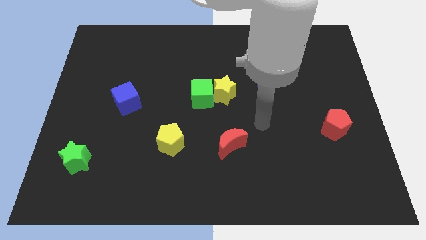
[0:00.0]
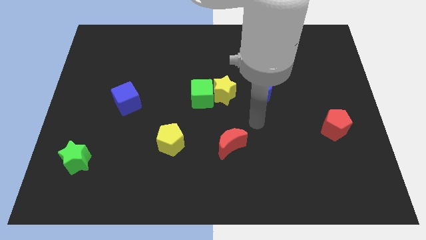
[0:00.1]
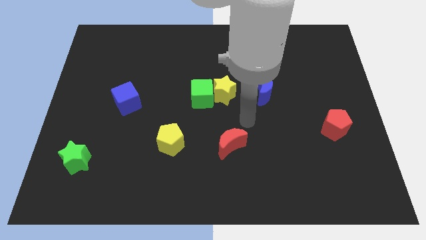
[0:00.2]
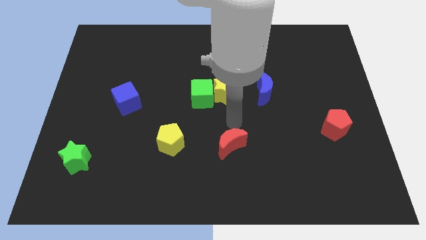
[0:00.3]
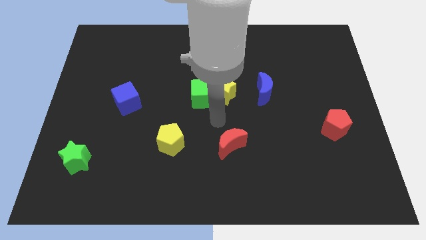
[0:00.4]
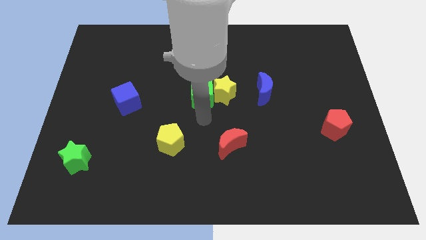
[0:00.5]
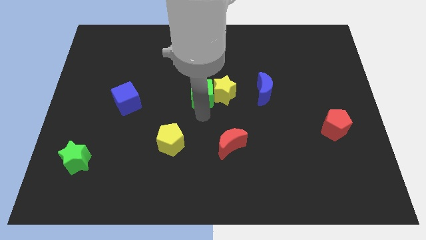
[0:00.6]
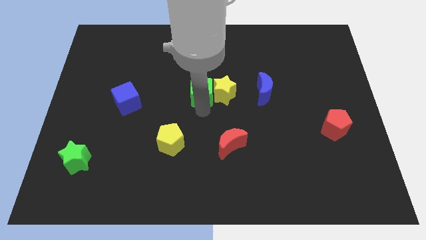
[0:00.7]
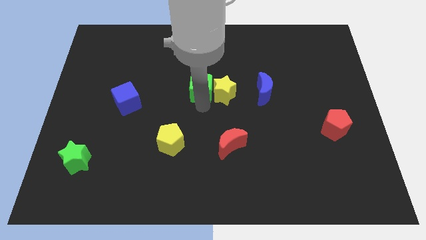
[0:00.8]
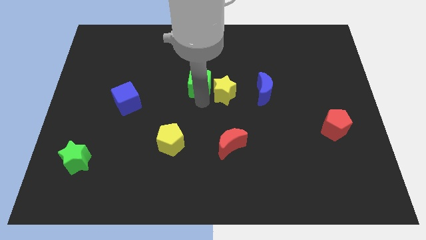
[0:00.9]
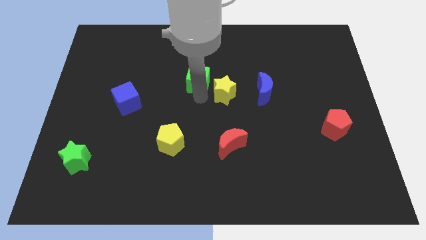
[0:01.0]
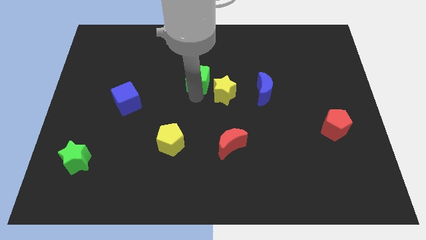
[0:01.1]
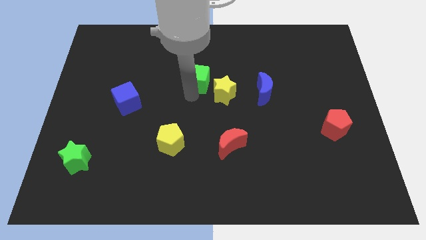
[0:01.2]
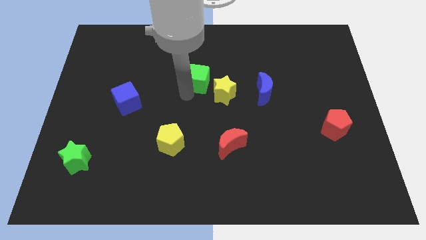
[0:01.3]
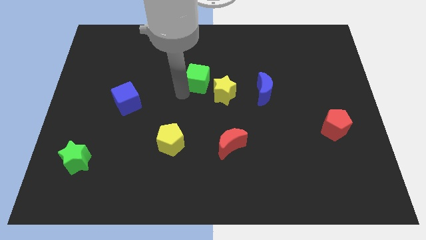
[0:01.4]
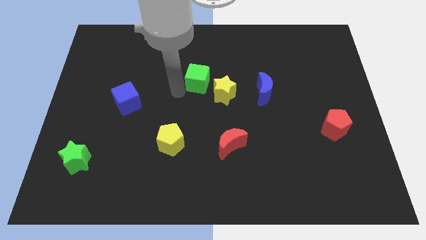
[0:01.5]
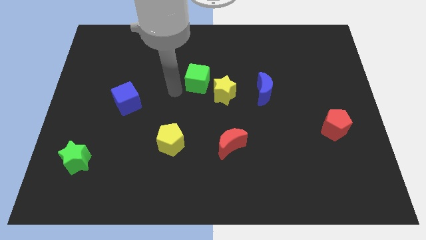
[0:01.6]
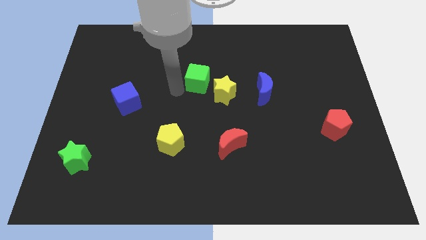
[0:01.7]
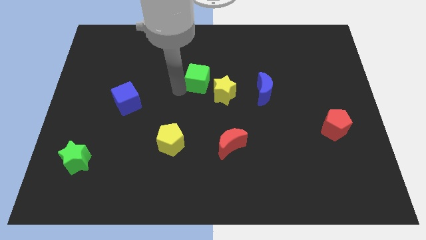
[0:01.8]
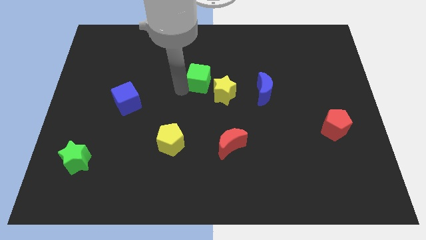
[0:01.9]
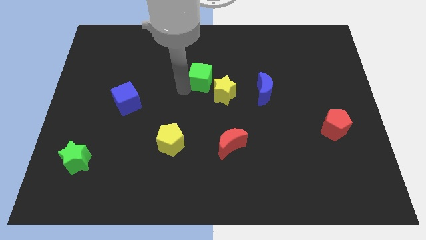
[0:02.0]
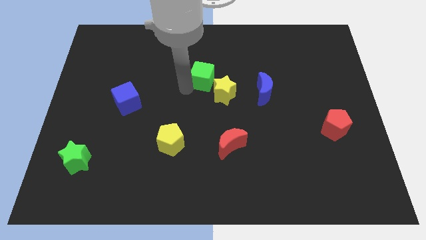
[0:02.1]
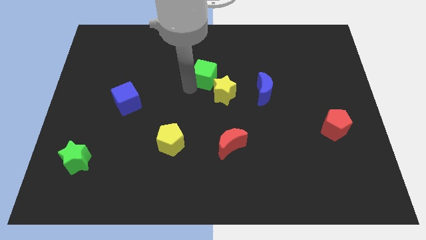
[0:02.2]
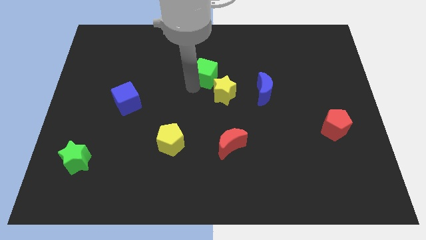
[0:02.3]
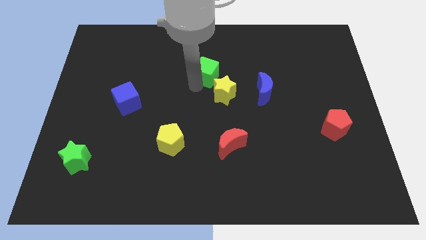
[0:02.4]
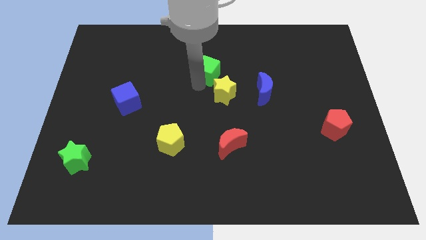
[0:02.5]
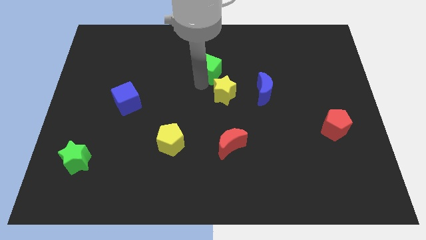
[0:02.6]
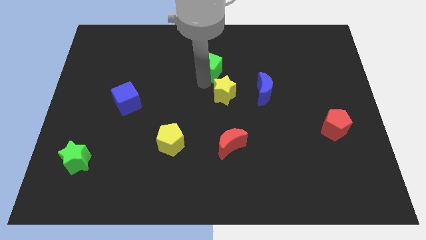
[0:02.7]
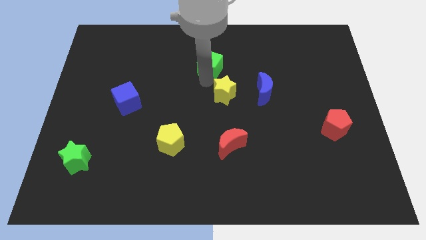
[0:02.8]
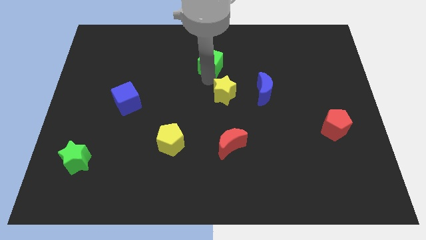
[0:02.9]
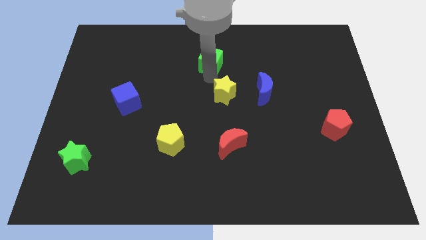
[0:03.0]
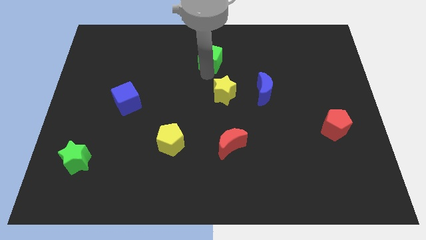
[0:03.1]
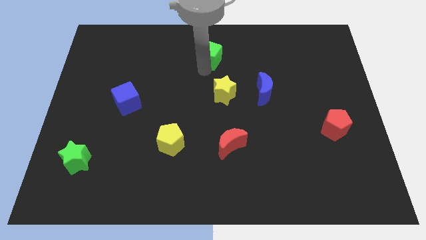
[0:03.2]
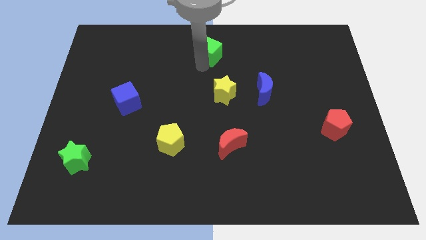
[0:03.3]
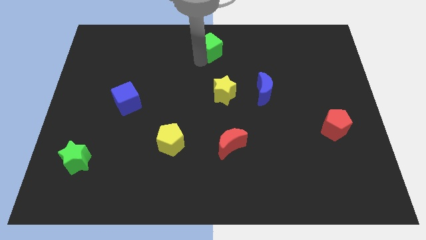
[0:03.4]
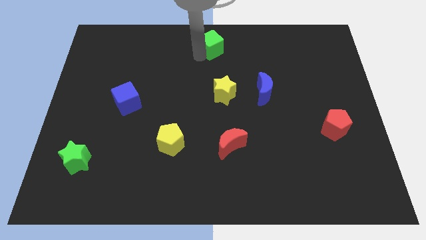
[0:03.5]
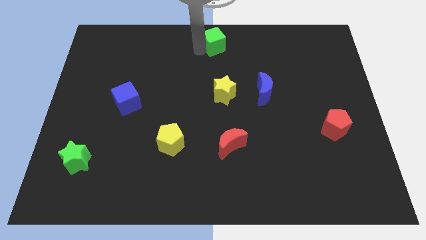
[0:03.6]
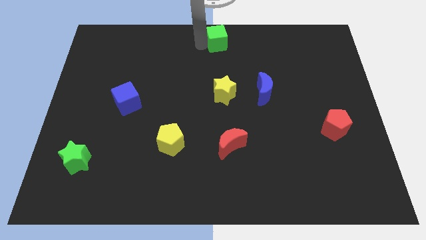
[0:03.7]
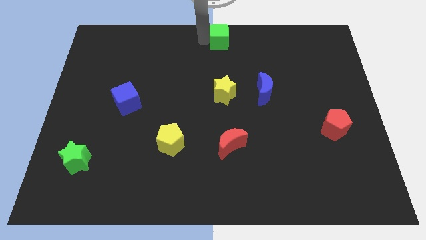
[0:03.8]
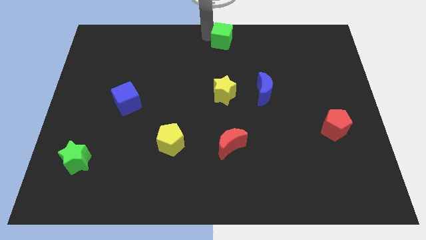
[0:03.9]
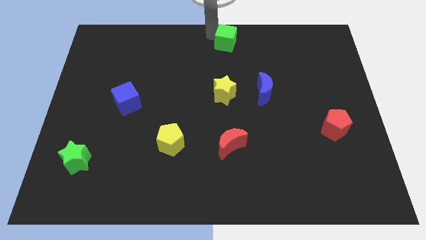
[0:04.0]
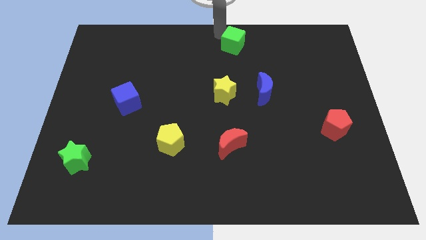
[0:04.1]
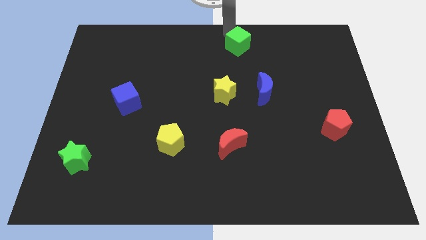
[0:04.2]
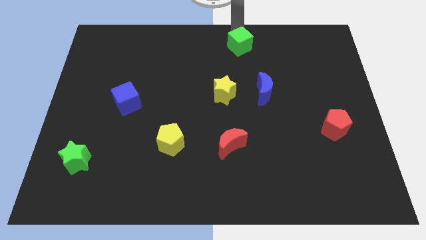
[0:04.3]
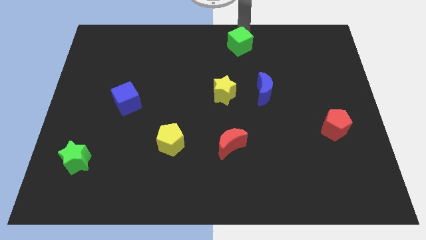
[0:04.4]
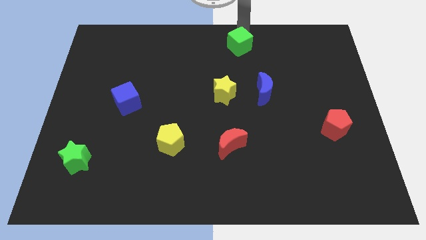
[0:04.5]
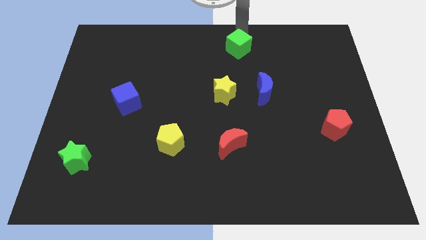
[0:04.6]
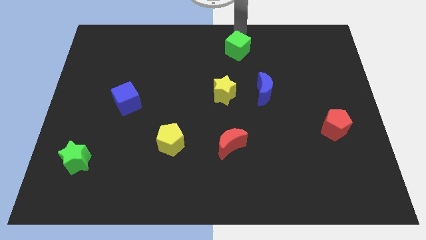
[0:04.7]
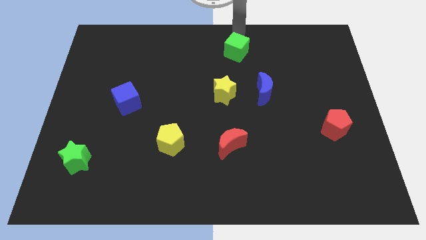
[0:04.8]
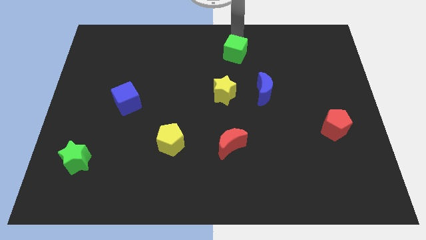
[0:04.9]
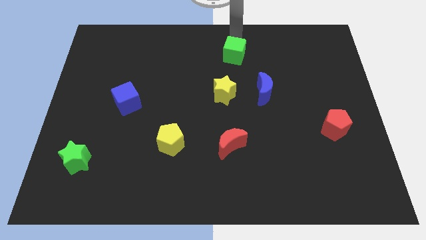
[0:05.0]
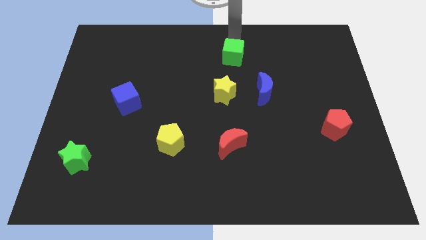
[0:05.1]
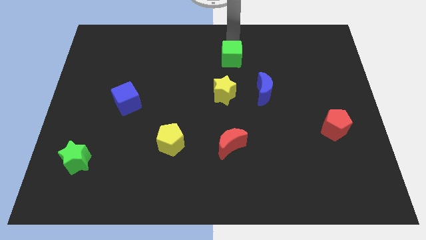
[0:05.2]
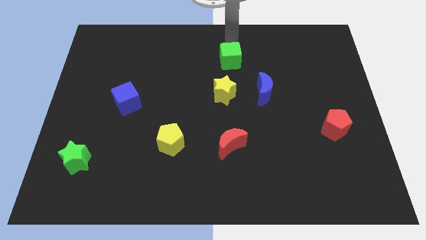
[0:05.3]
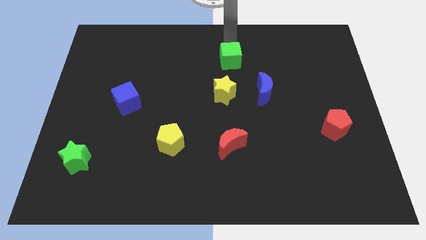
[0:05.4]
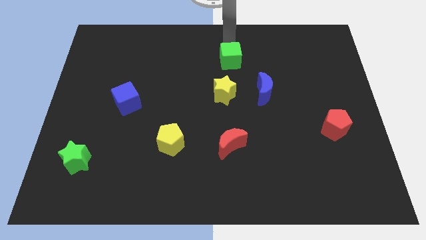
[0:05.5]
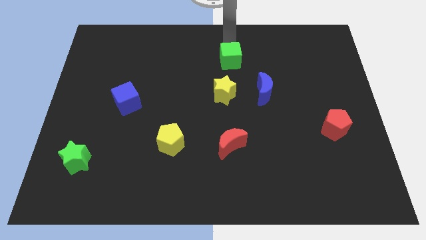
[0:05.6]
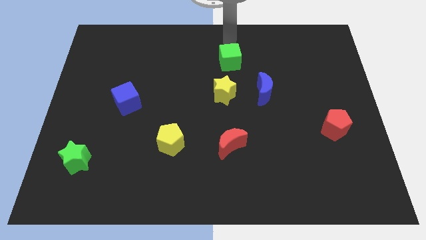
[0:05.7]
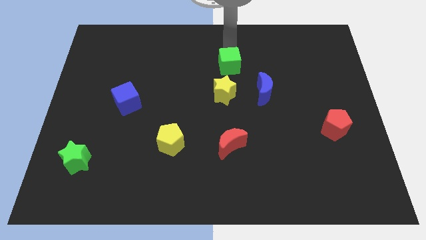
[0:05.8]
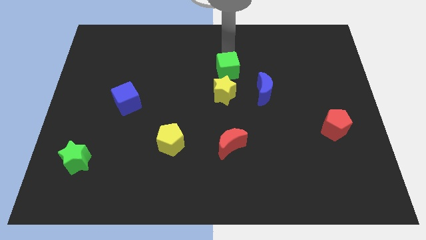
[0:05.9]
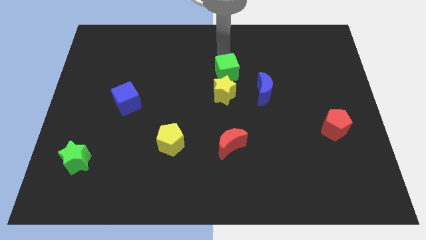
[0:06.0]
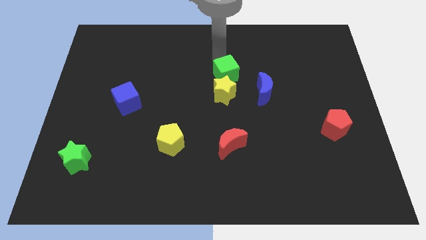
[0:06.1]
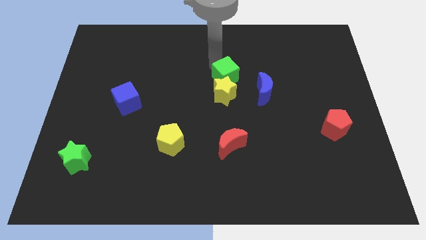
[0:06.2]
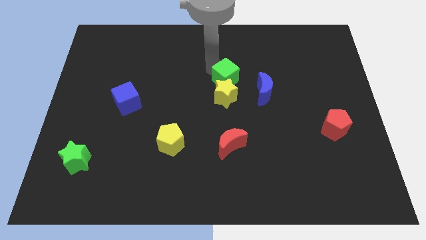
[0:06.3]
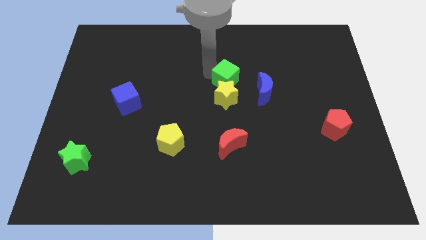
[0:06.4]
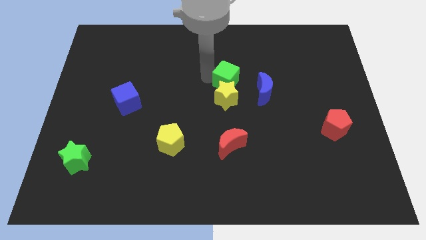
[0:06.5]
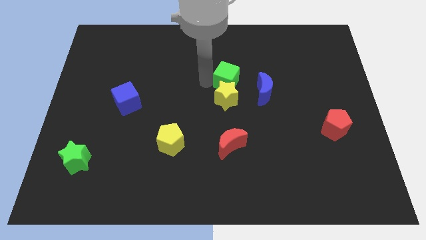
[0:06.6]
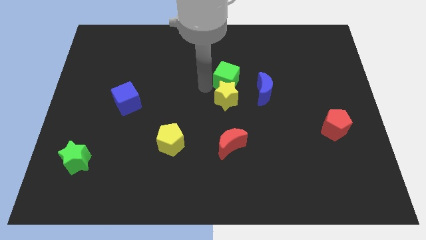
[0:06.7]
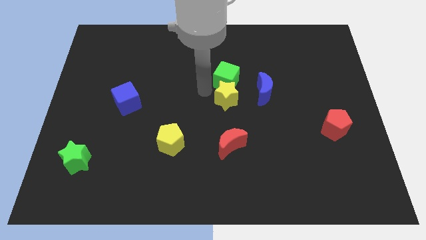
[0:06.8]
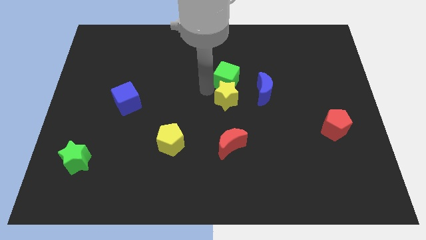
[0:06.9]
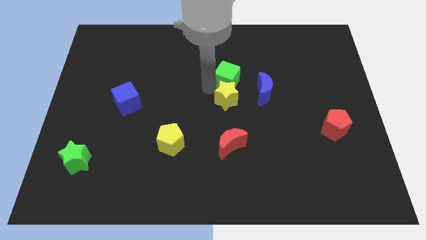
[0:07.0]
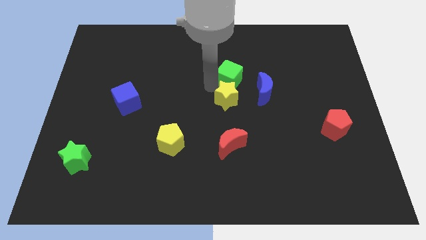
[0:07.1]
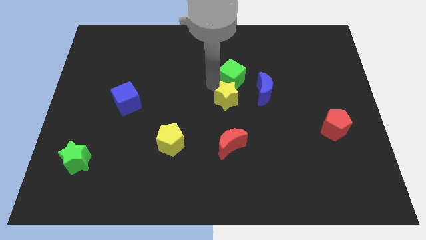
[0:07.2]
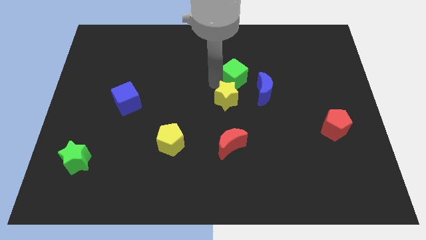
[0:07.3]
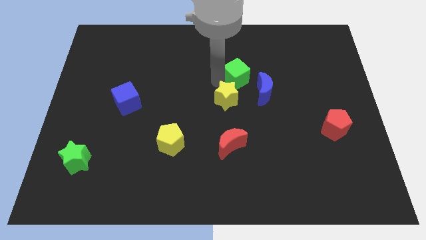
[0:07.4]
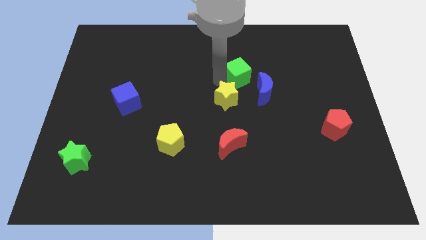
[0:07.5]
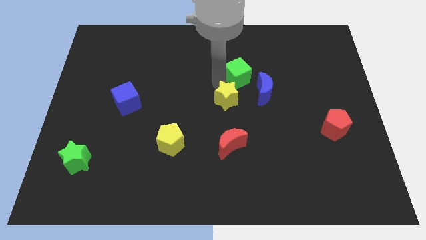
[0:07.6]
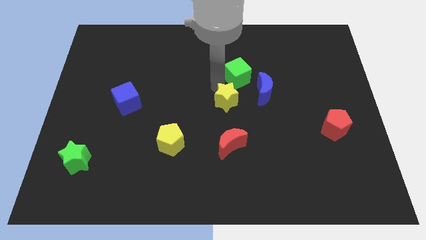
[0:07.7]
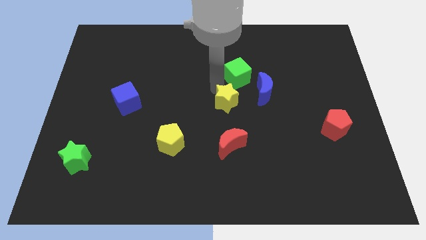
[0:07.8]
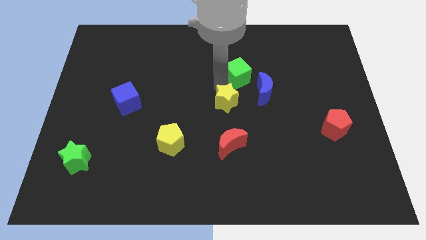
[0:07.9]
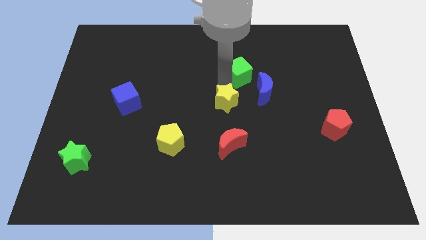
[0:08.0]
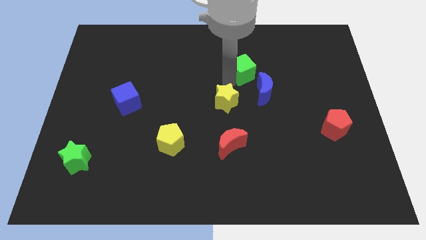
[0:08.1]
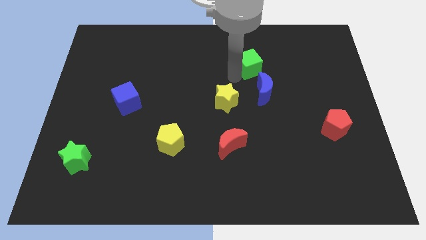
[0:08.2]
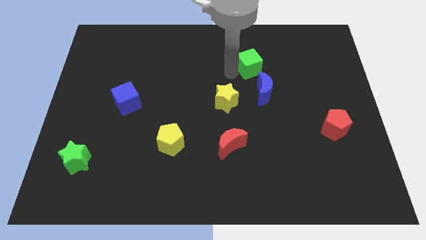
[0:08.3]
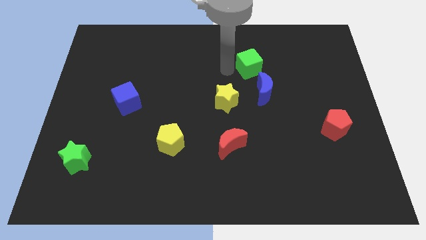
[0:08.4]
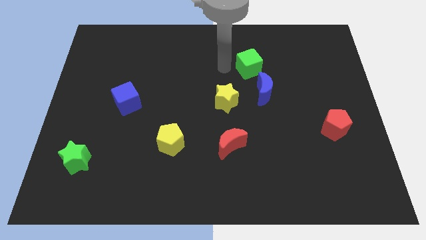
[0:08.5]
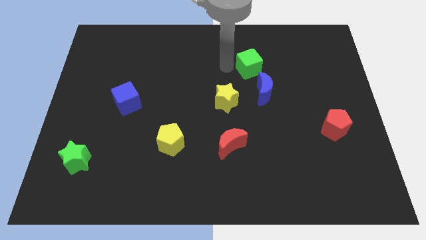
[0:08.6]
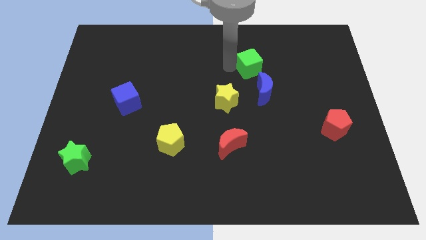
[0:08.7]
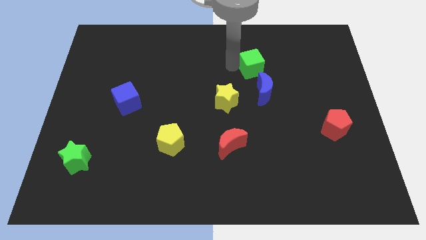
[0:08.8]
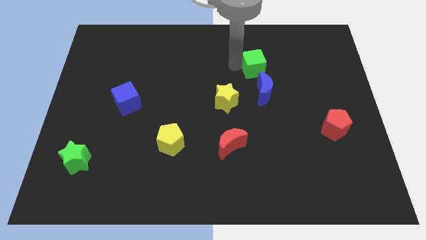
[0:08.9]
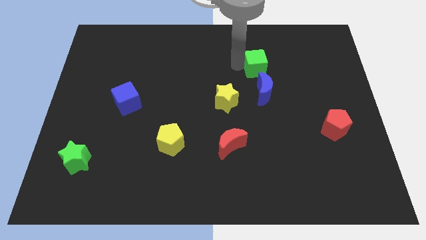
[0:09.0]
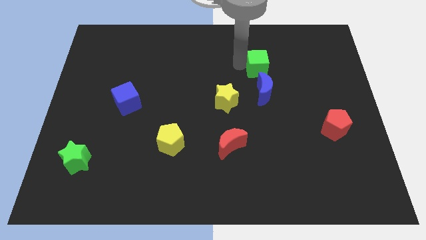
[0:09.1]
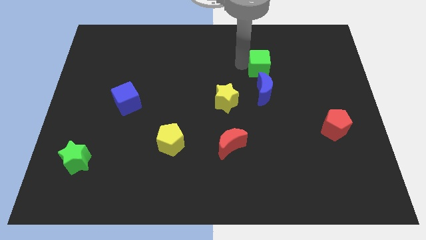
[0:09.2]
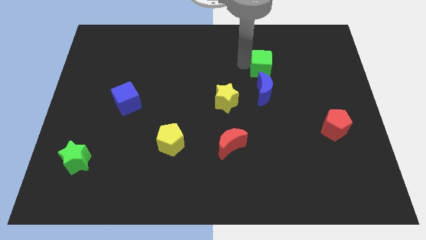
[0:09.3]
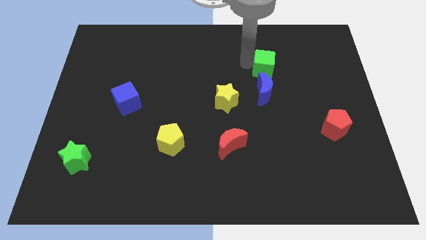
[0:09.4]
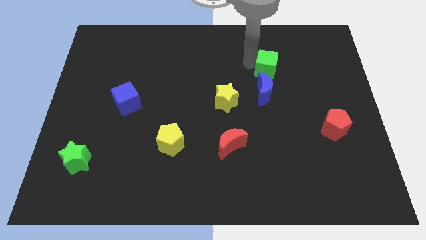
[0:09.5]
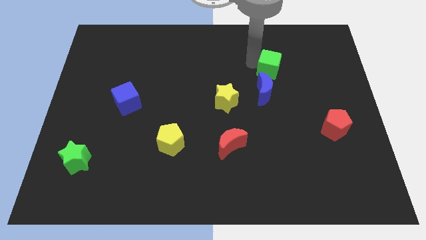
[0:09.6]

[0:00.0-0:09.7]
push the green cube diagonally up and to the right of the blue moon
